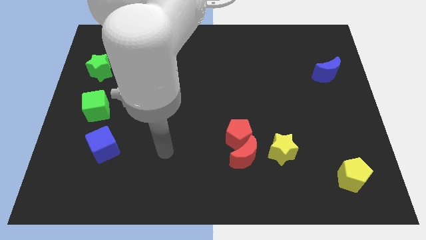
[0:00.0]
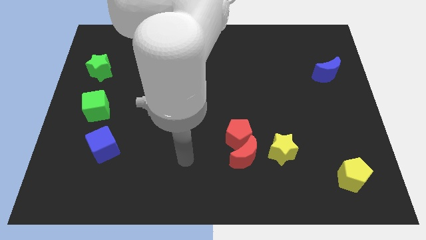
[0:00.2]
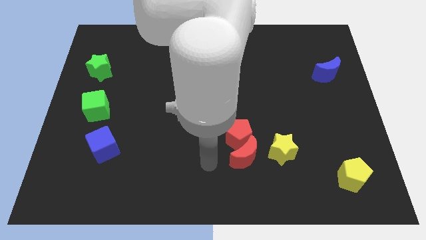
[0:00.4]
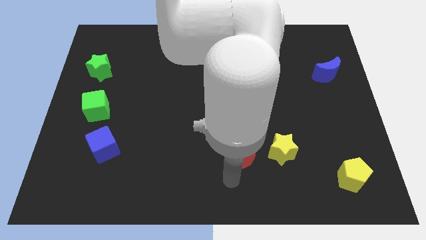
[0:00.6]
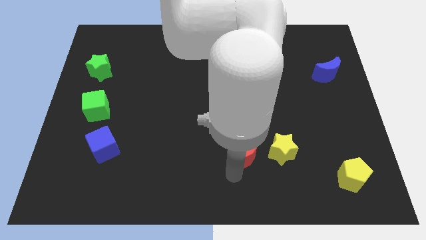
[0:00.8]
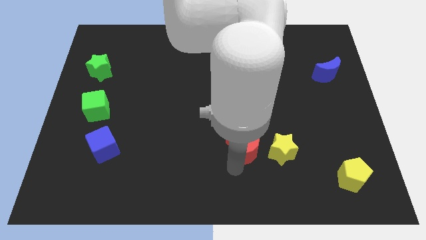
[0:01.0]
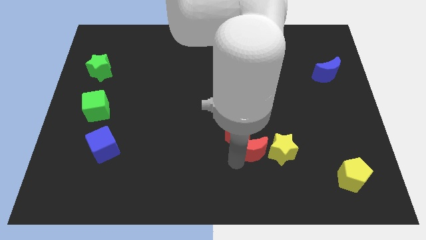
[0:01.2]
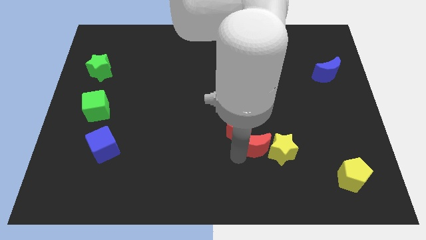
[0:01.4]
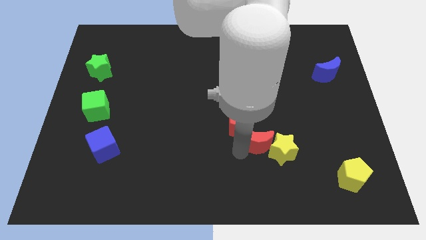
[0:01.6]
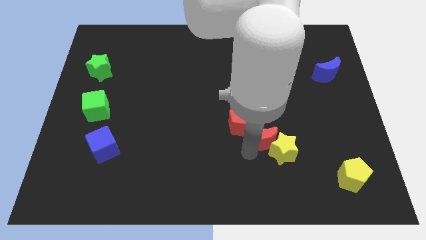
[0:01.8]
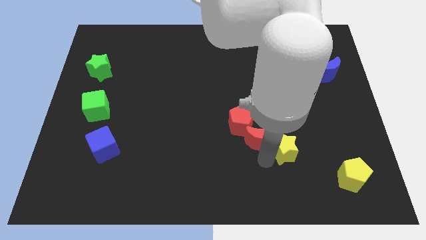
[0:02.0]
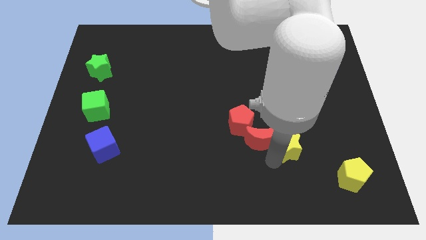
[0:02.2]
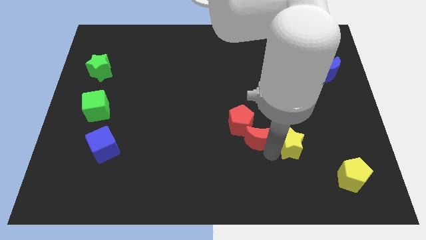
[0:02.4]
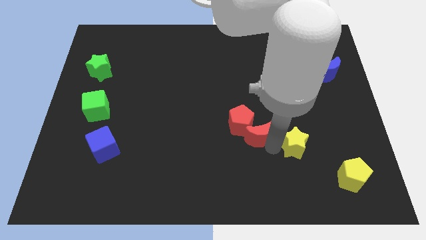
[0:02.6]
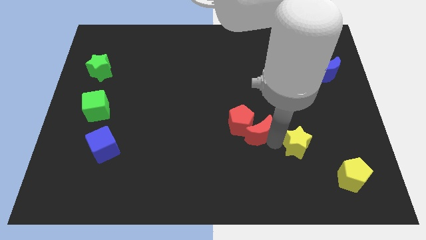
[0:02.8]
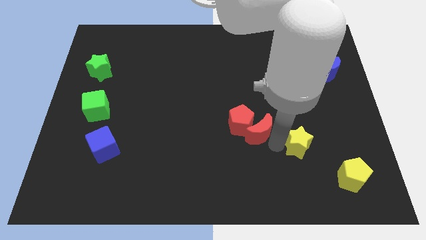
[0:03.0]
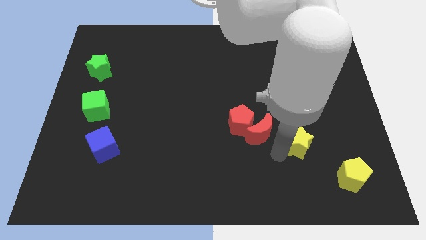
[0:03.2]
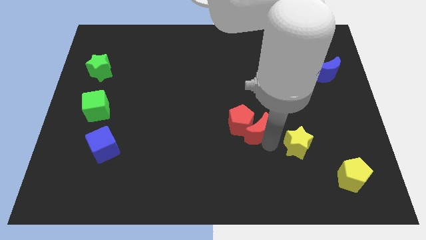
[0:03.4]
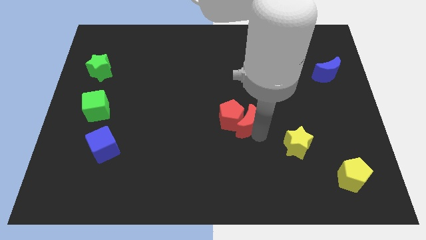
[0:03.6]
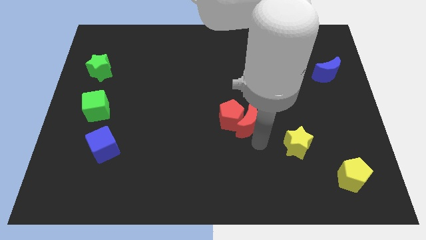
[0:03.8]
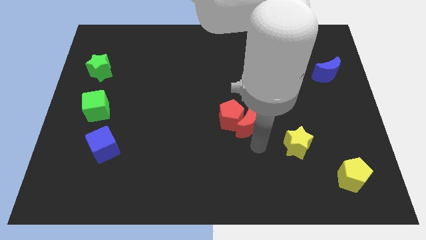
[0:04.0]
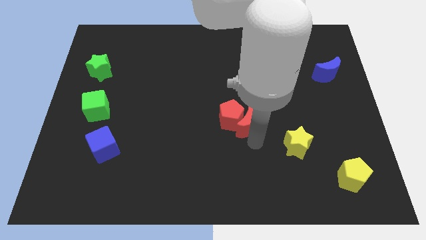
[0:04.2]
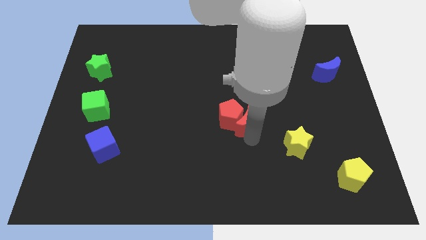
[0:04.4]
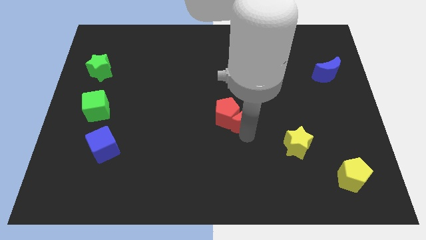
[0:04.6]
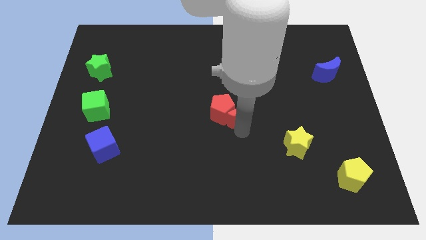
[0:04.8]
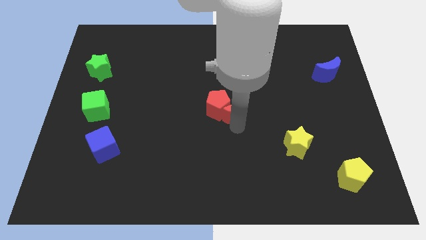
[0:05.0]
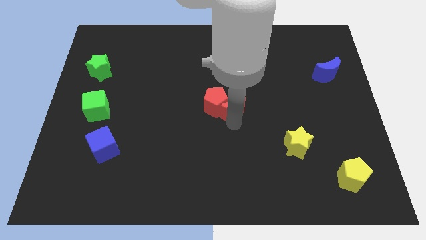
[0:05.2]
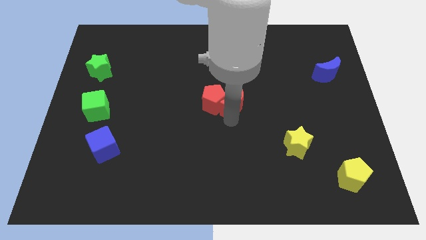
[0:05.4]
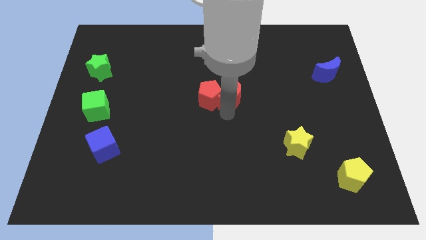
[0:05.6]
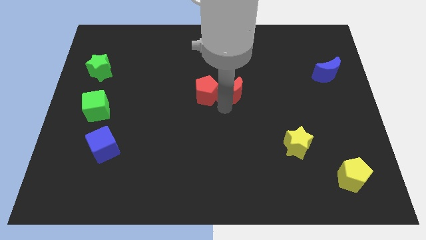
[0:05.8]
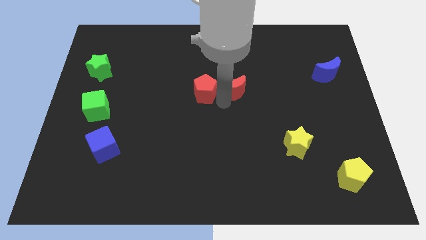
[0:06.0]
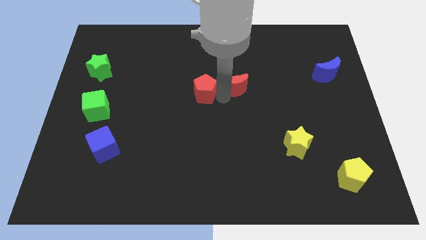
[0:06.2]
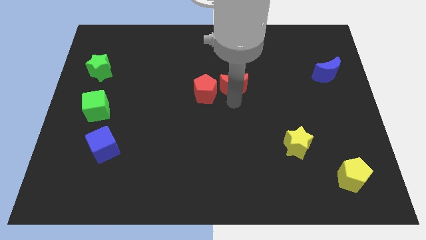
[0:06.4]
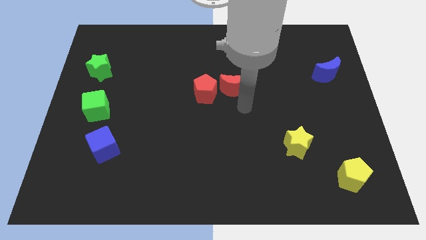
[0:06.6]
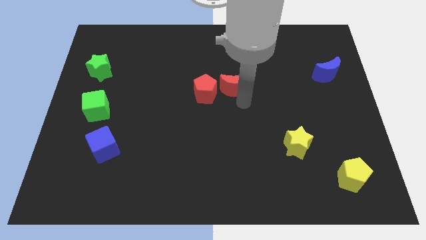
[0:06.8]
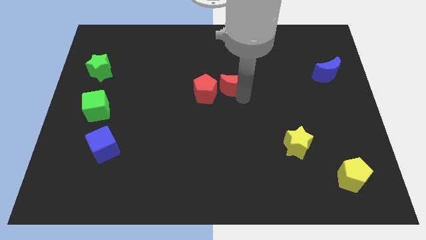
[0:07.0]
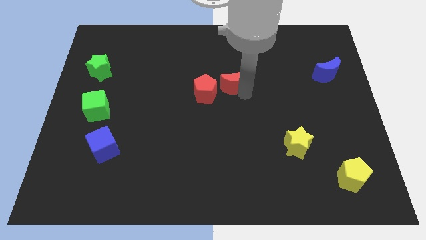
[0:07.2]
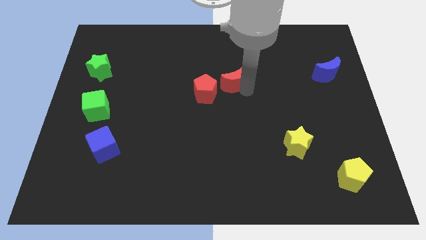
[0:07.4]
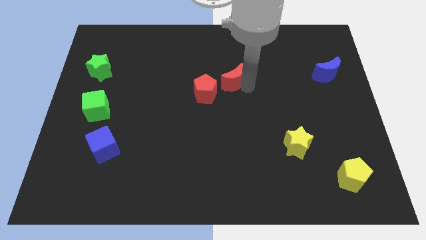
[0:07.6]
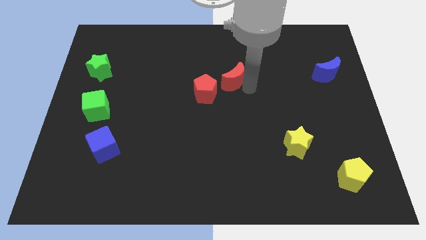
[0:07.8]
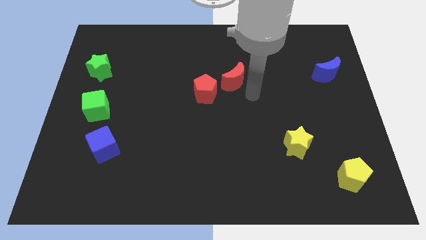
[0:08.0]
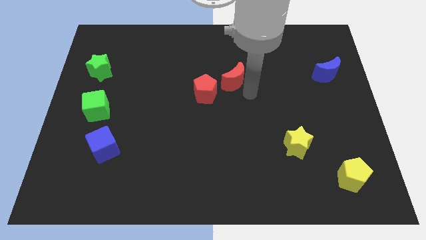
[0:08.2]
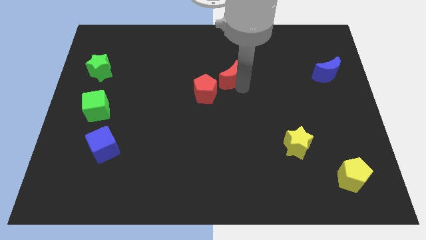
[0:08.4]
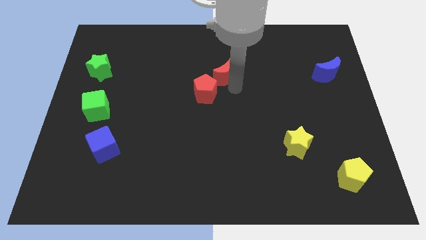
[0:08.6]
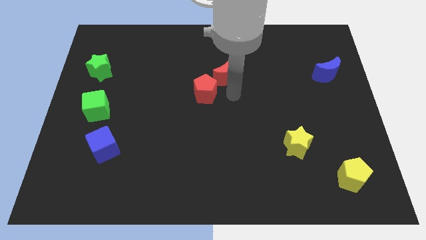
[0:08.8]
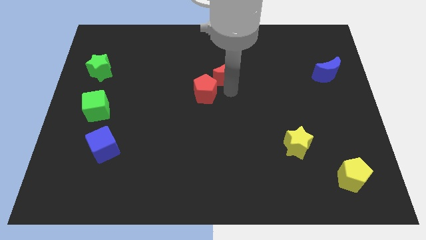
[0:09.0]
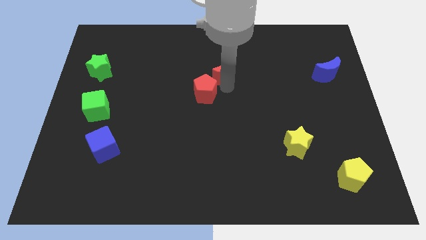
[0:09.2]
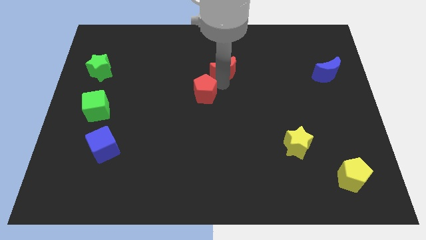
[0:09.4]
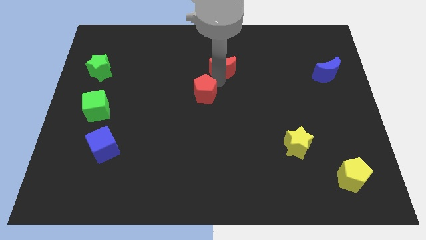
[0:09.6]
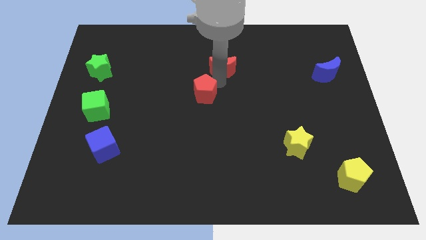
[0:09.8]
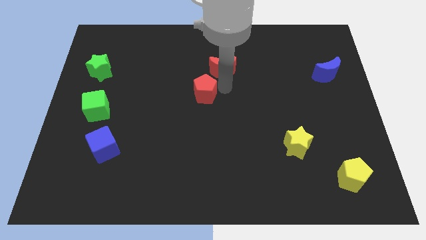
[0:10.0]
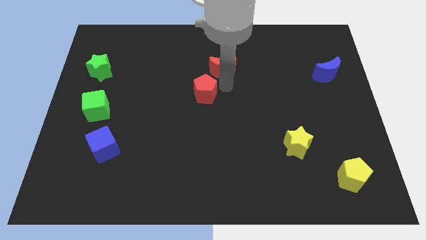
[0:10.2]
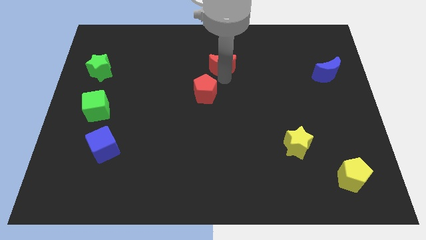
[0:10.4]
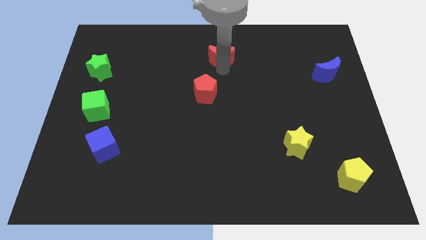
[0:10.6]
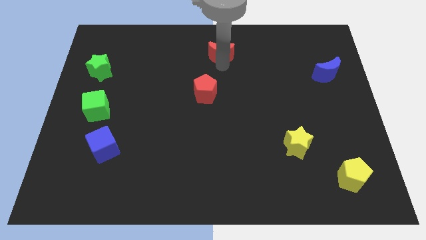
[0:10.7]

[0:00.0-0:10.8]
move the red moon to the top

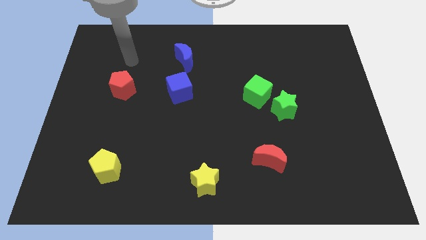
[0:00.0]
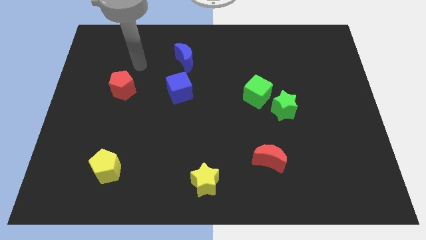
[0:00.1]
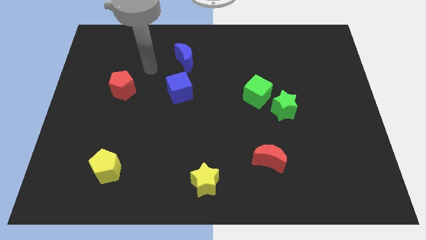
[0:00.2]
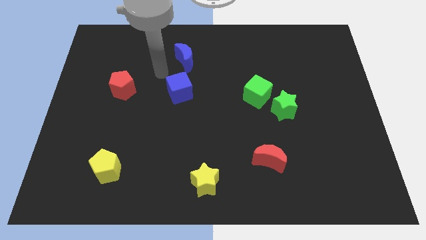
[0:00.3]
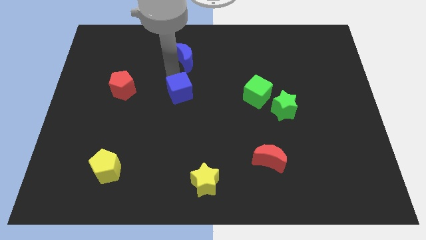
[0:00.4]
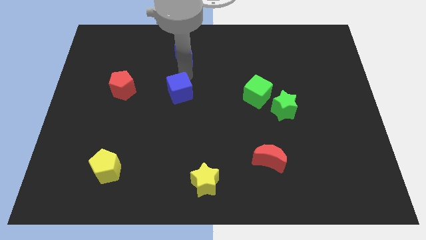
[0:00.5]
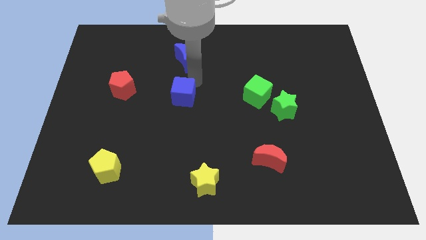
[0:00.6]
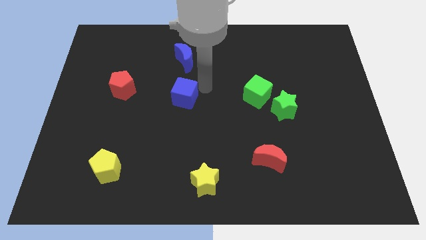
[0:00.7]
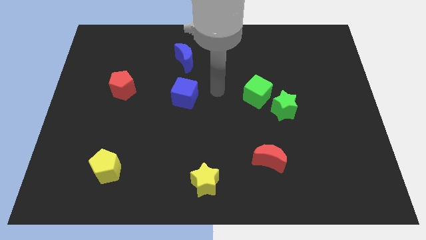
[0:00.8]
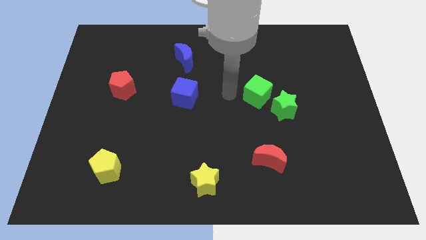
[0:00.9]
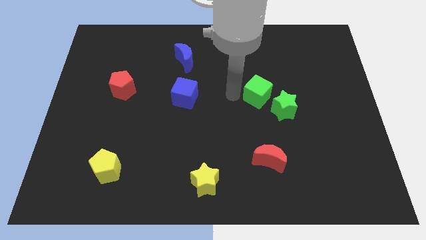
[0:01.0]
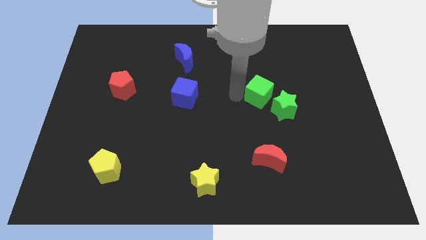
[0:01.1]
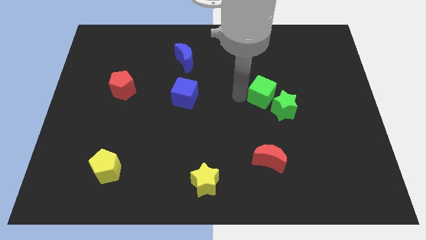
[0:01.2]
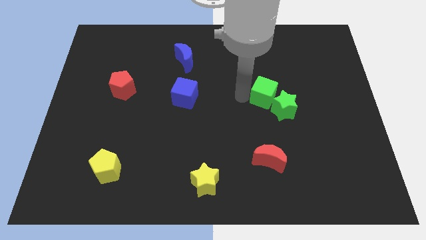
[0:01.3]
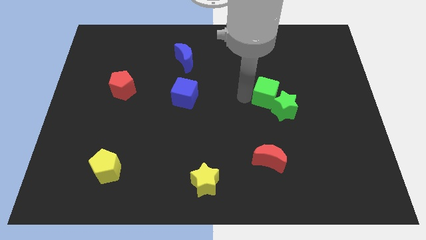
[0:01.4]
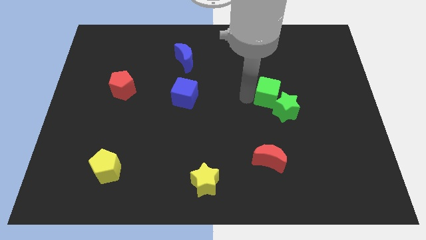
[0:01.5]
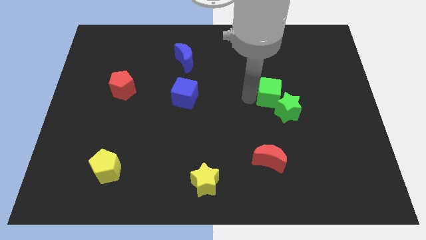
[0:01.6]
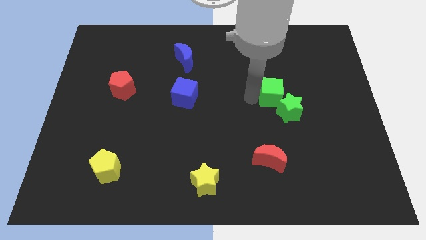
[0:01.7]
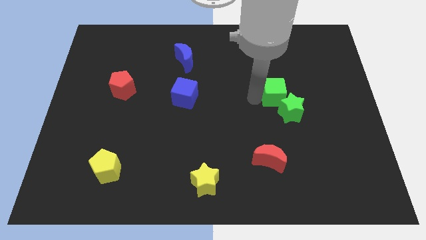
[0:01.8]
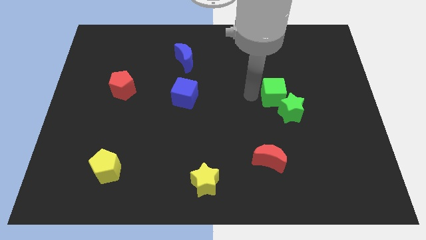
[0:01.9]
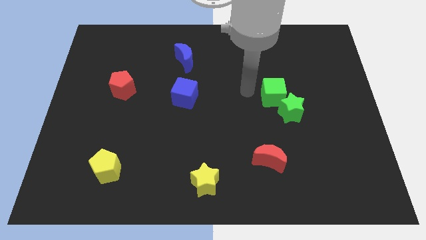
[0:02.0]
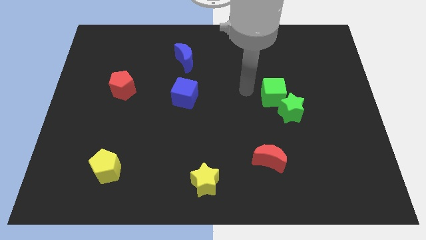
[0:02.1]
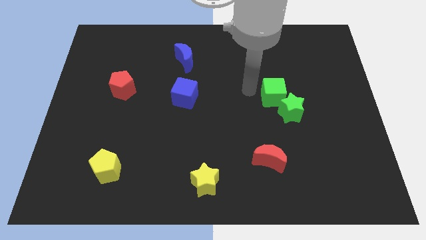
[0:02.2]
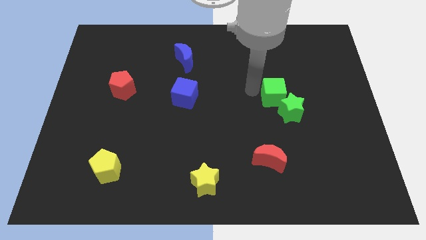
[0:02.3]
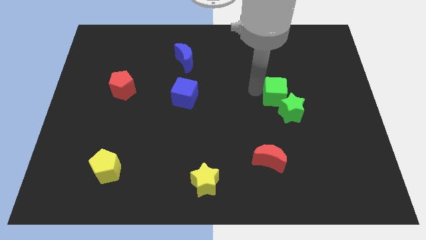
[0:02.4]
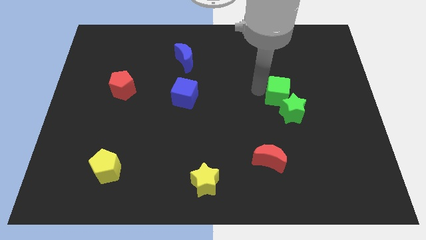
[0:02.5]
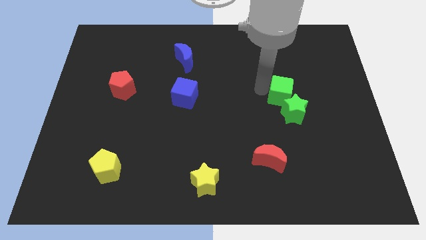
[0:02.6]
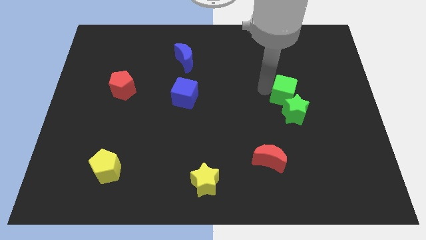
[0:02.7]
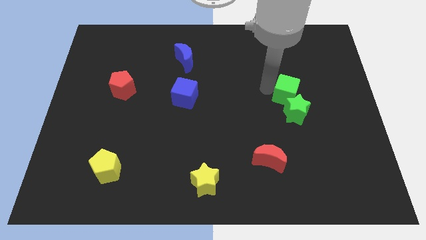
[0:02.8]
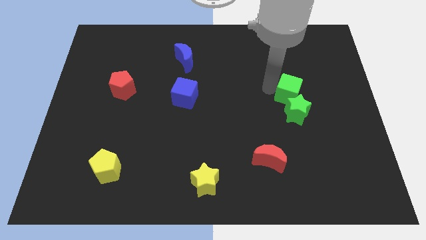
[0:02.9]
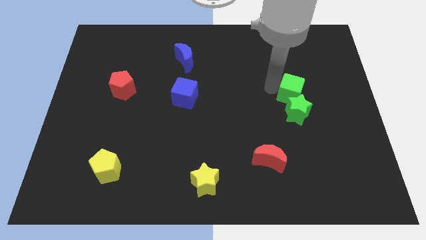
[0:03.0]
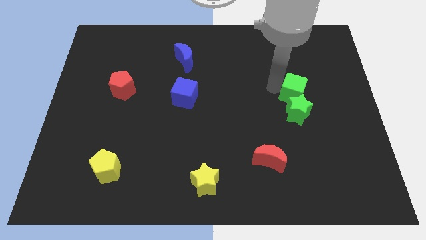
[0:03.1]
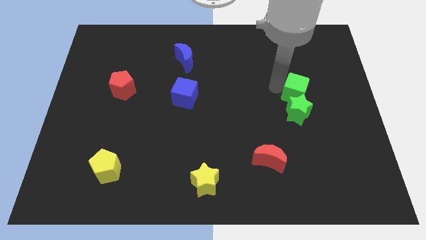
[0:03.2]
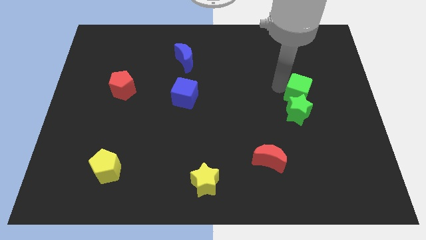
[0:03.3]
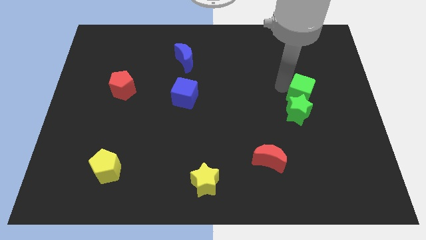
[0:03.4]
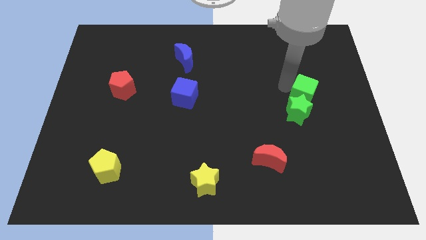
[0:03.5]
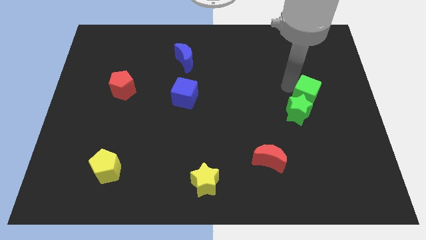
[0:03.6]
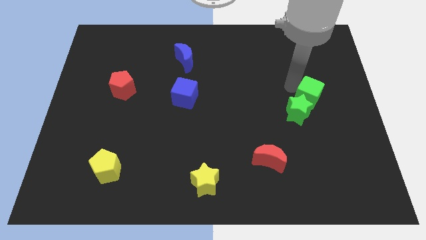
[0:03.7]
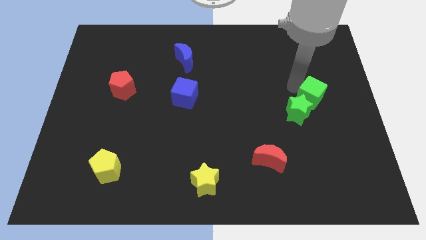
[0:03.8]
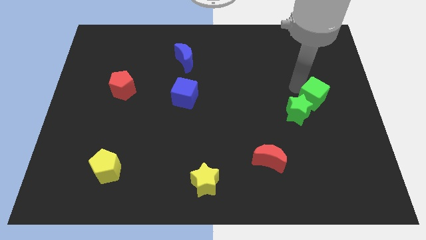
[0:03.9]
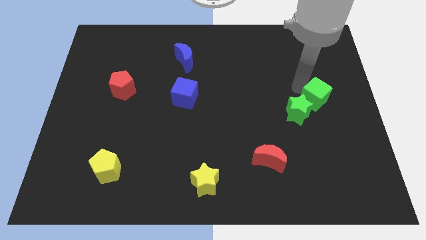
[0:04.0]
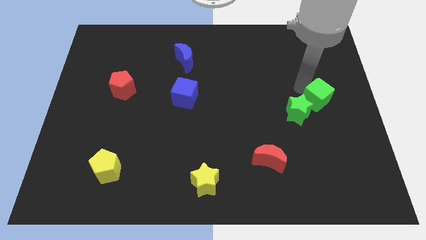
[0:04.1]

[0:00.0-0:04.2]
put the green cube to the center right
